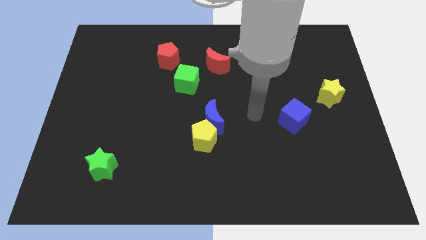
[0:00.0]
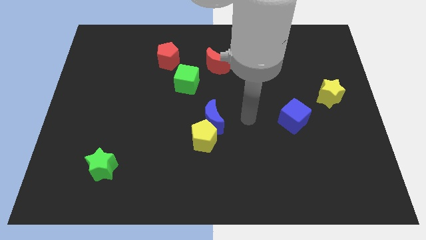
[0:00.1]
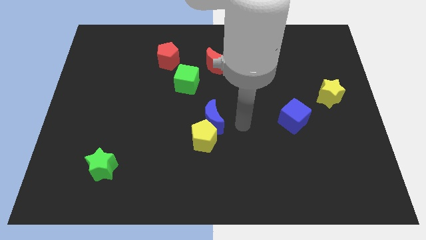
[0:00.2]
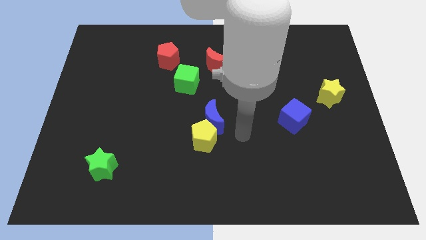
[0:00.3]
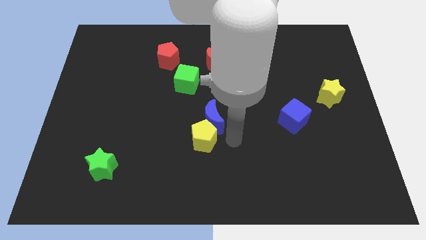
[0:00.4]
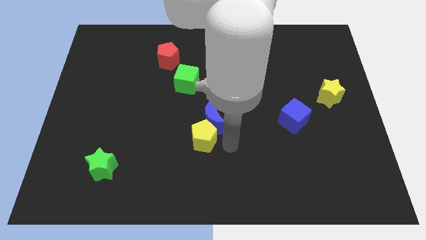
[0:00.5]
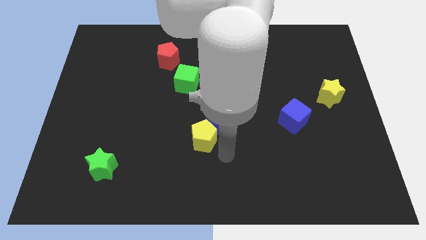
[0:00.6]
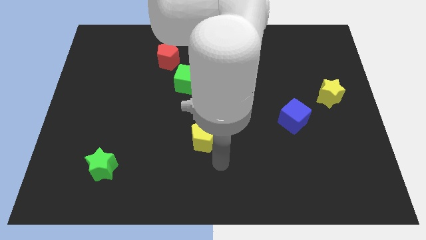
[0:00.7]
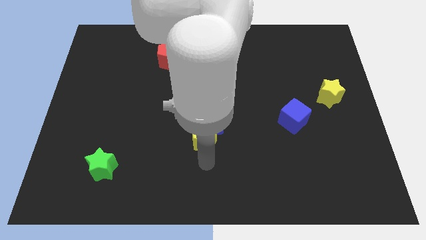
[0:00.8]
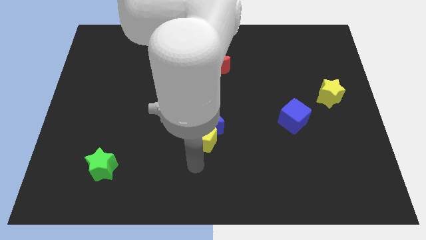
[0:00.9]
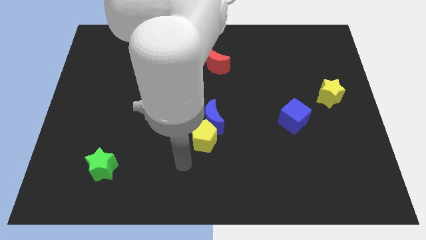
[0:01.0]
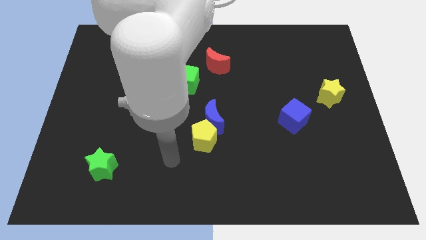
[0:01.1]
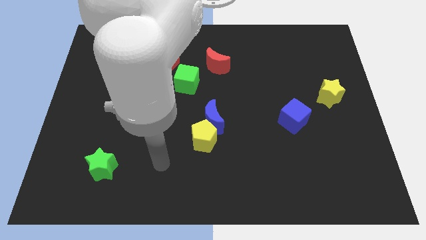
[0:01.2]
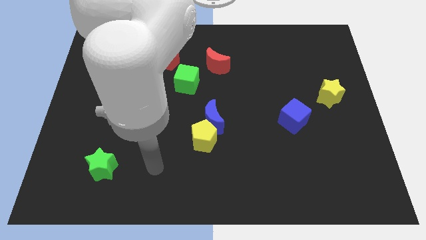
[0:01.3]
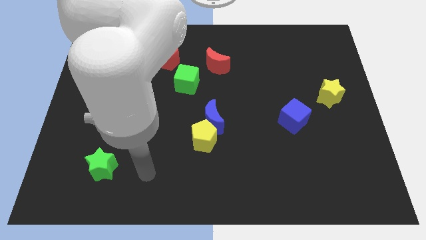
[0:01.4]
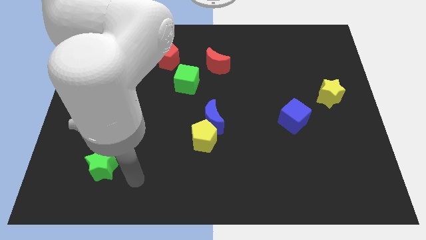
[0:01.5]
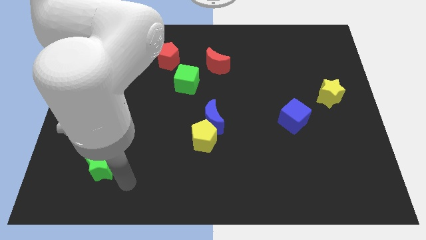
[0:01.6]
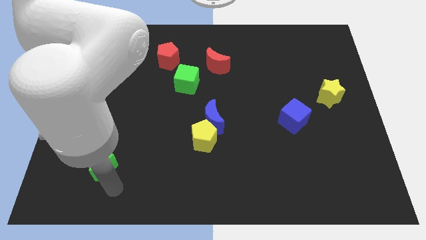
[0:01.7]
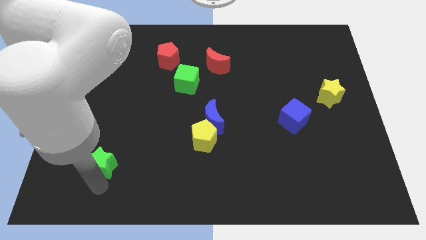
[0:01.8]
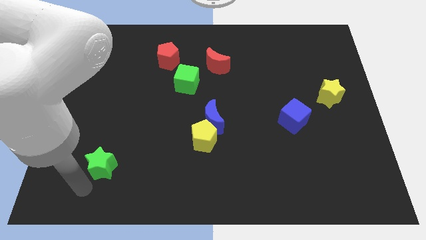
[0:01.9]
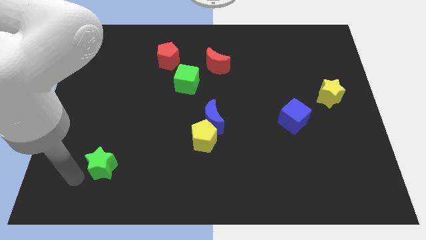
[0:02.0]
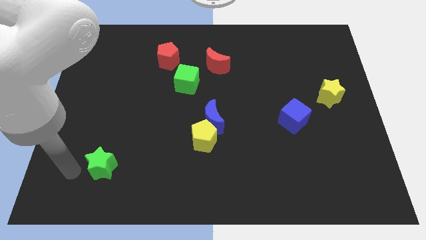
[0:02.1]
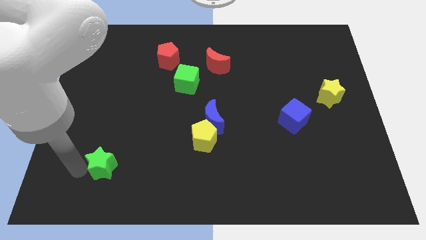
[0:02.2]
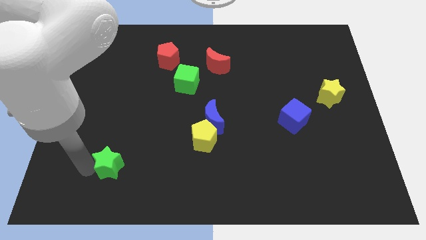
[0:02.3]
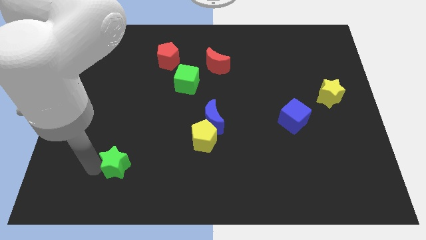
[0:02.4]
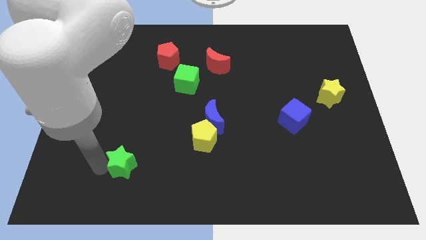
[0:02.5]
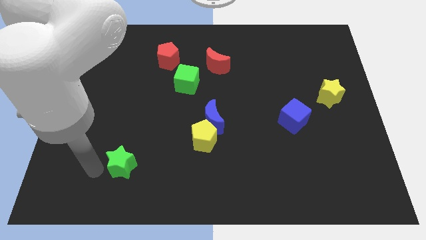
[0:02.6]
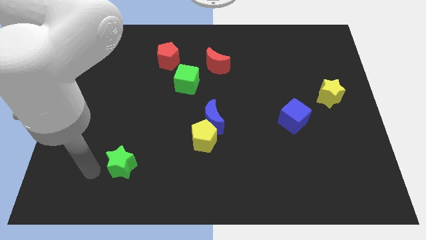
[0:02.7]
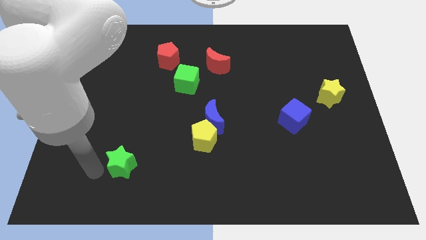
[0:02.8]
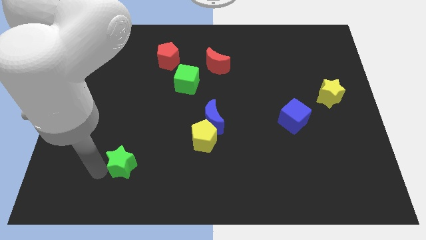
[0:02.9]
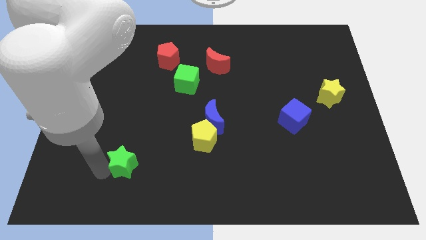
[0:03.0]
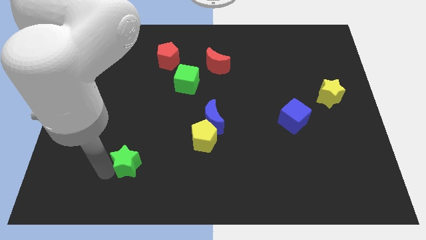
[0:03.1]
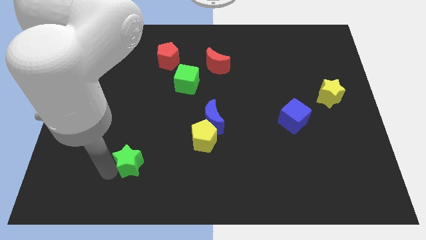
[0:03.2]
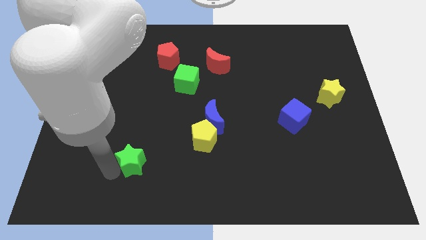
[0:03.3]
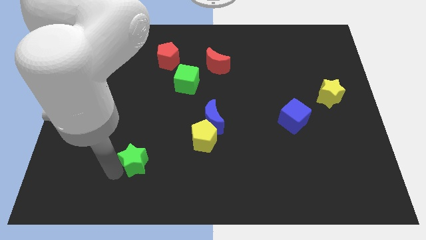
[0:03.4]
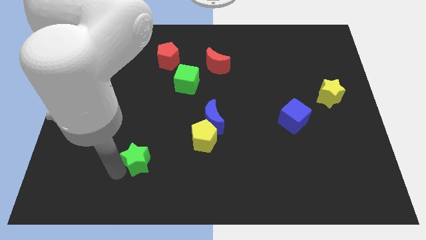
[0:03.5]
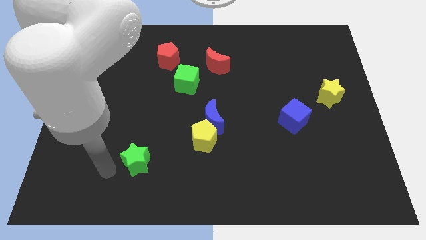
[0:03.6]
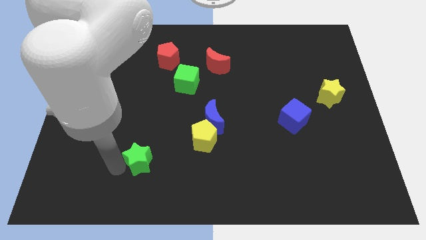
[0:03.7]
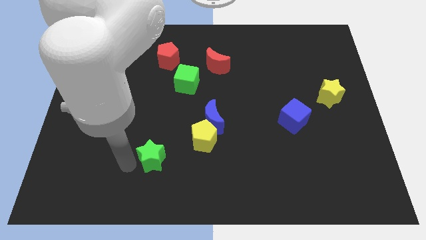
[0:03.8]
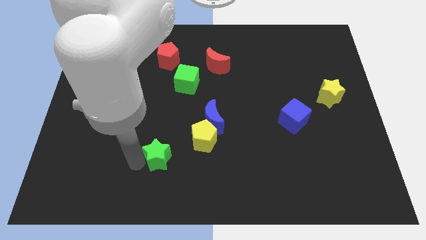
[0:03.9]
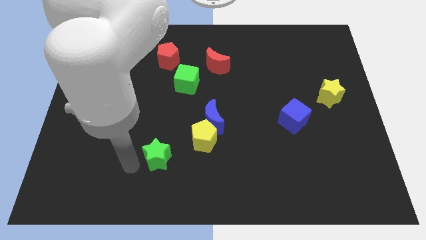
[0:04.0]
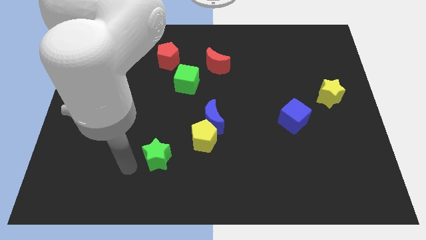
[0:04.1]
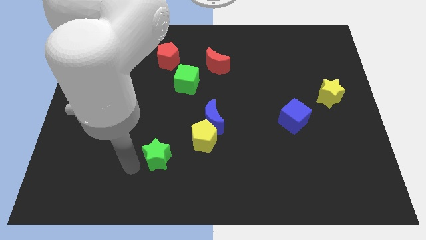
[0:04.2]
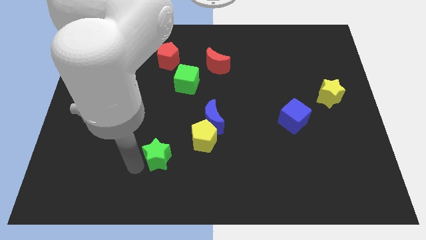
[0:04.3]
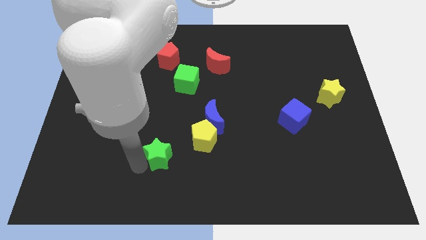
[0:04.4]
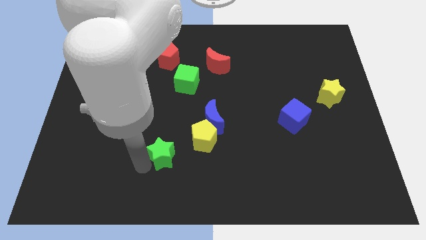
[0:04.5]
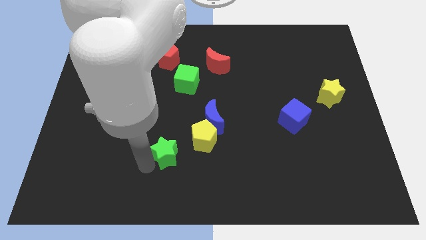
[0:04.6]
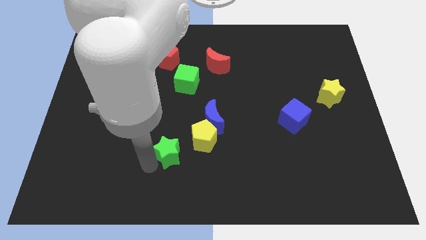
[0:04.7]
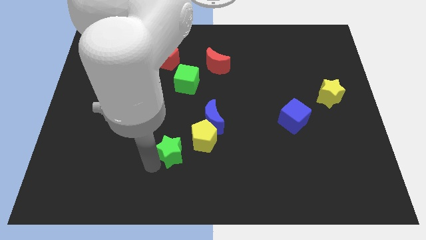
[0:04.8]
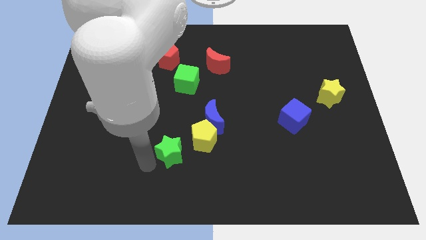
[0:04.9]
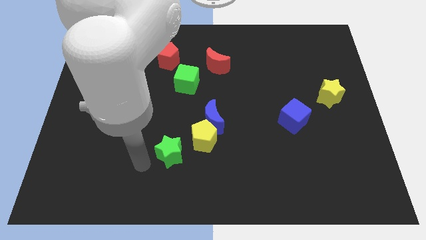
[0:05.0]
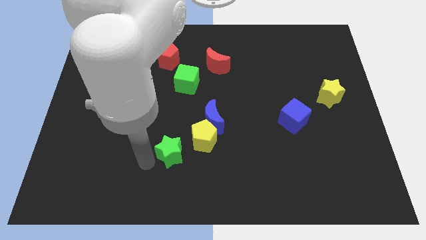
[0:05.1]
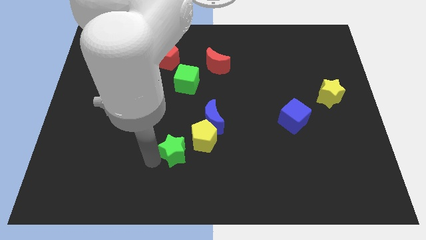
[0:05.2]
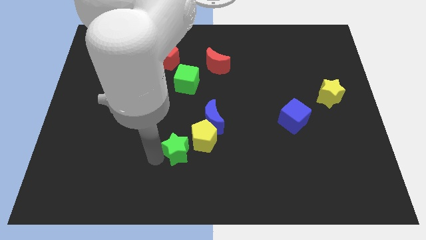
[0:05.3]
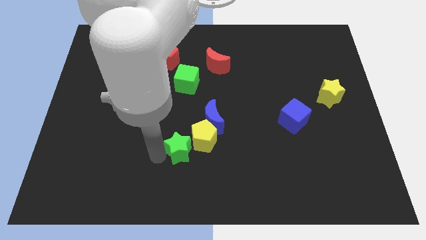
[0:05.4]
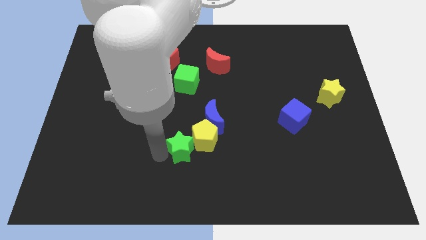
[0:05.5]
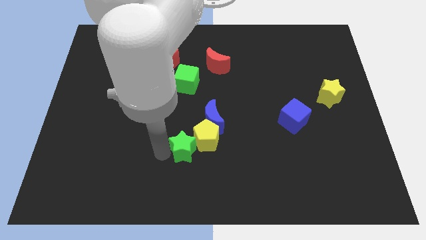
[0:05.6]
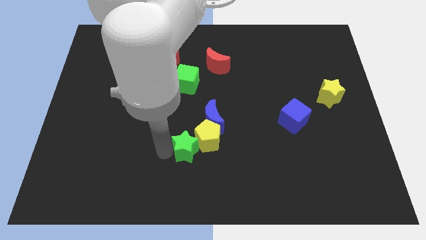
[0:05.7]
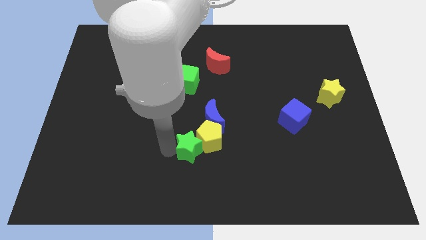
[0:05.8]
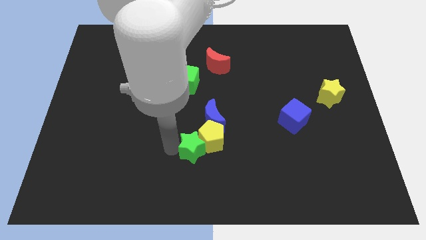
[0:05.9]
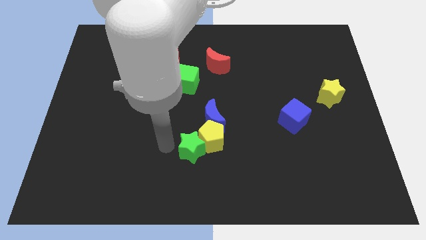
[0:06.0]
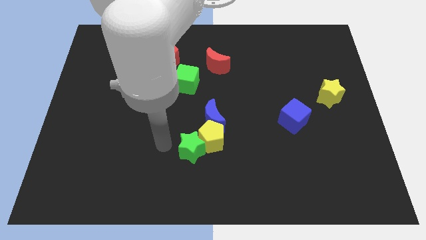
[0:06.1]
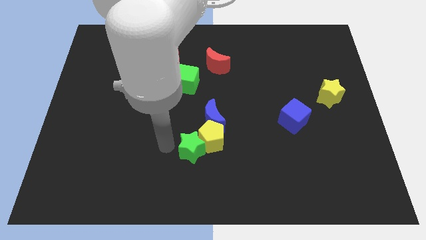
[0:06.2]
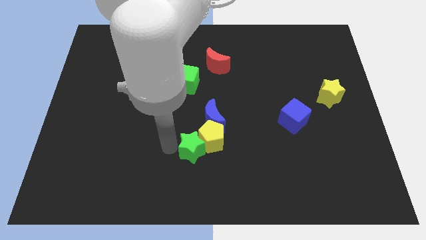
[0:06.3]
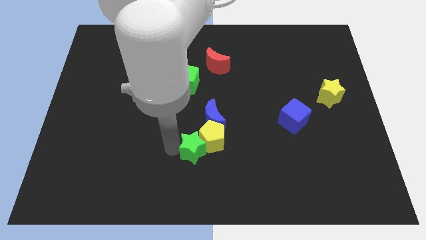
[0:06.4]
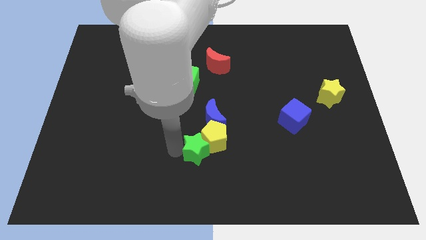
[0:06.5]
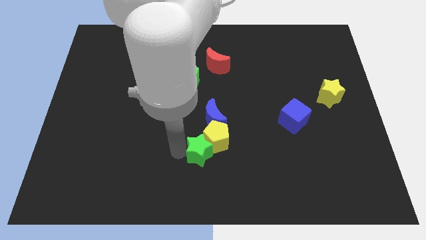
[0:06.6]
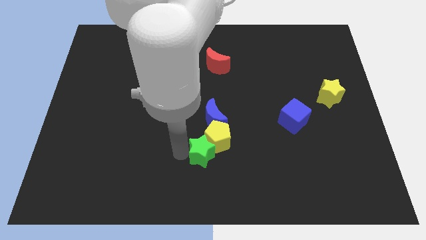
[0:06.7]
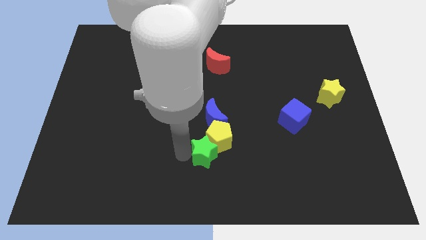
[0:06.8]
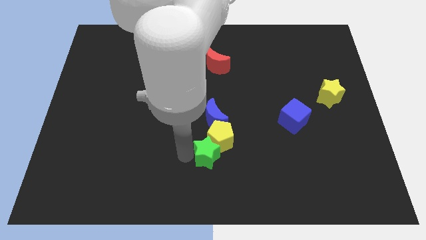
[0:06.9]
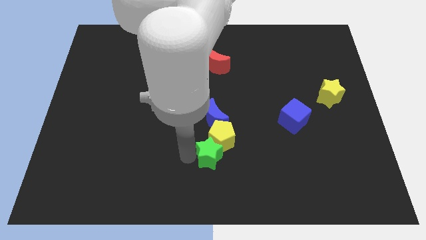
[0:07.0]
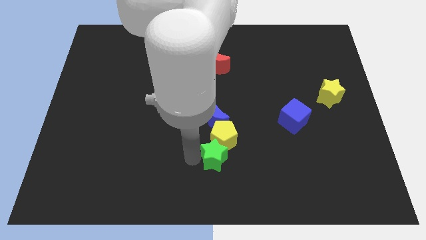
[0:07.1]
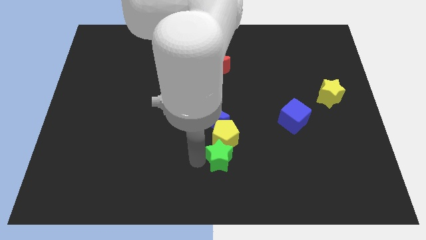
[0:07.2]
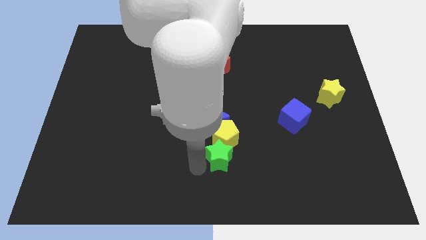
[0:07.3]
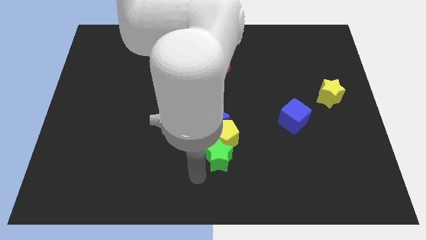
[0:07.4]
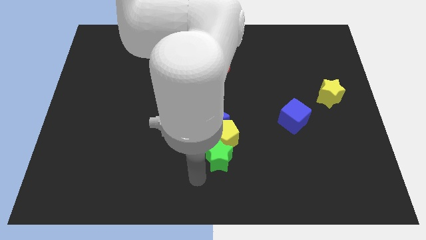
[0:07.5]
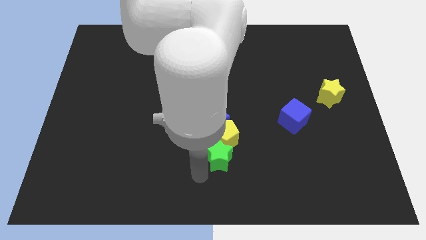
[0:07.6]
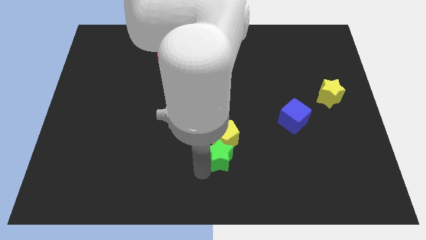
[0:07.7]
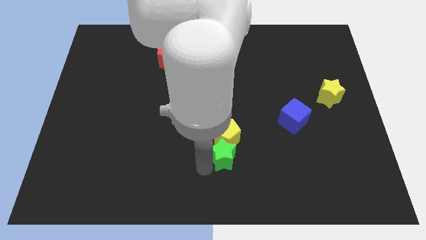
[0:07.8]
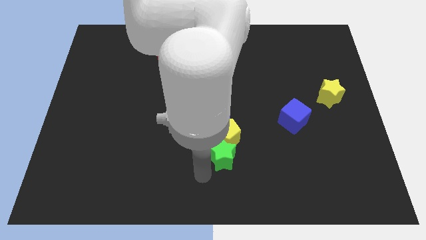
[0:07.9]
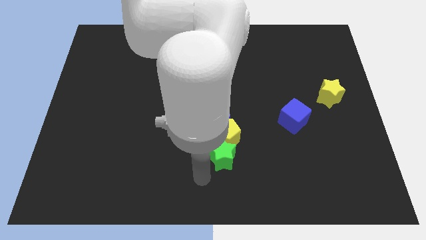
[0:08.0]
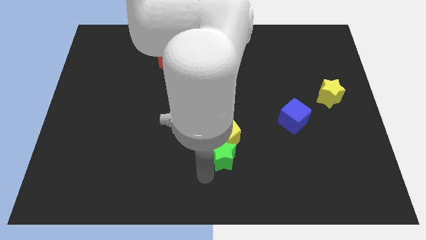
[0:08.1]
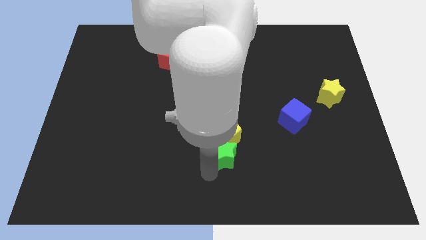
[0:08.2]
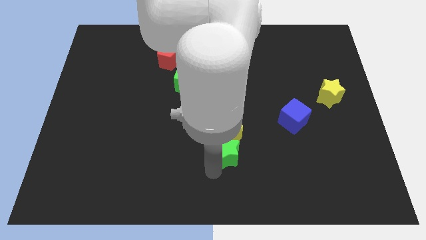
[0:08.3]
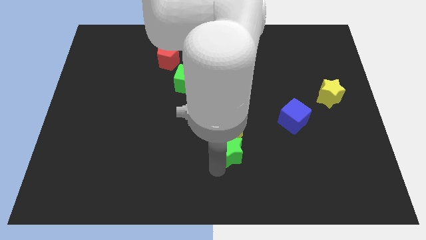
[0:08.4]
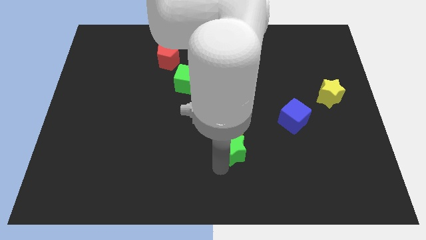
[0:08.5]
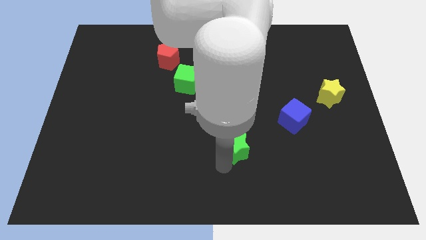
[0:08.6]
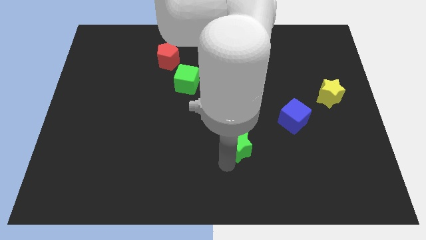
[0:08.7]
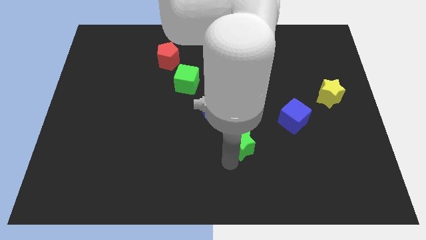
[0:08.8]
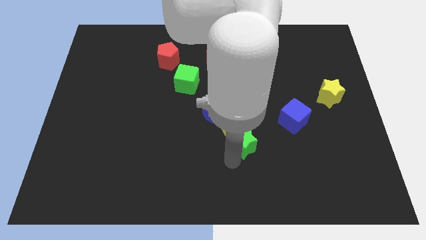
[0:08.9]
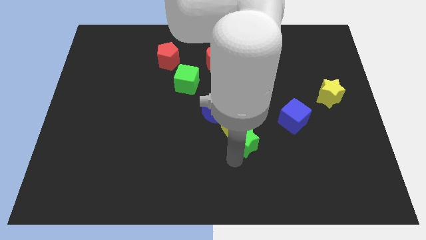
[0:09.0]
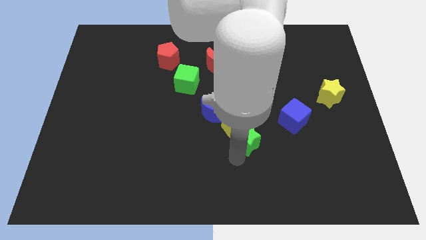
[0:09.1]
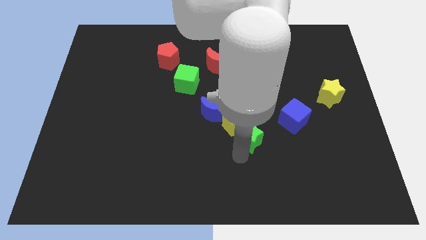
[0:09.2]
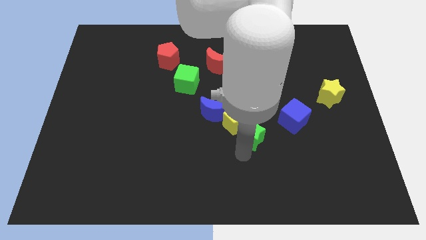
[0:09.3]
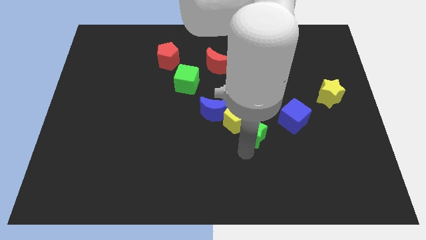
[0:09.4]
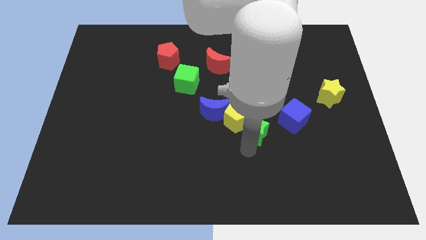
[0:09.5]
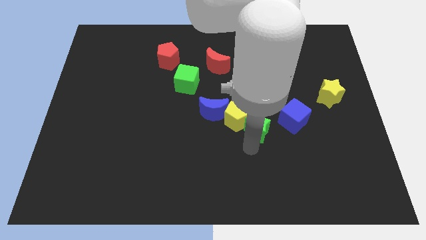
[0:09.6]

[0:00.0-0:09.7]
put the green star right of the blue moon
